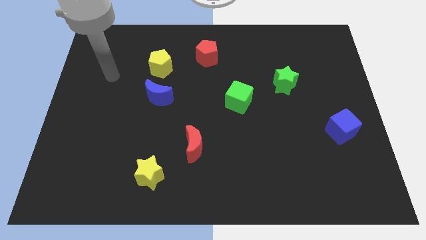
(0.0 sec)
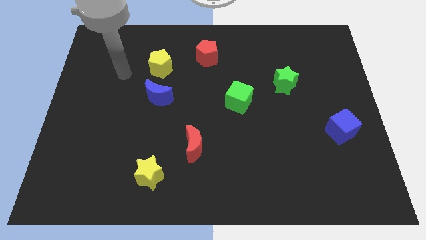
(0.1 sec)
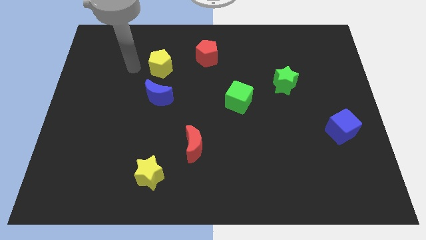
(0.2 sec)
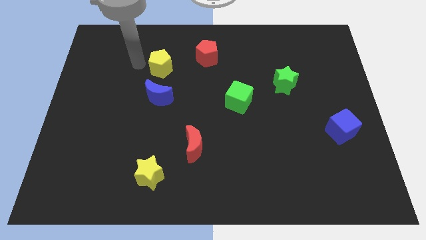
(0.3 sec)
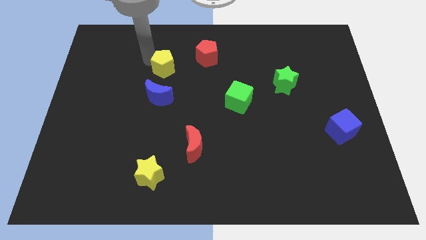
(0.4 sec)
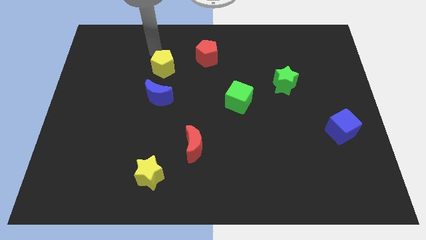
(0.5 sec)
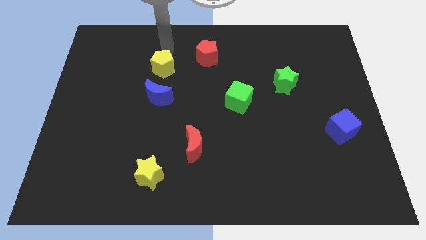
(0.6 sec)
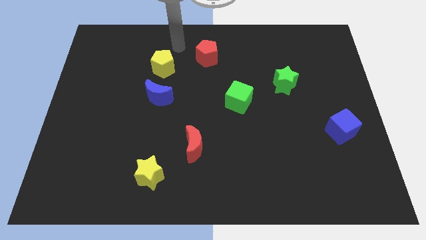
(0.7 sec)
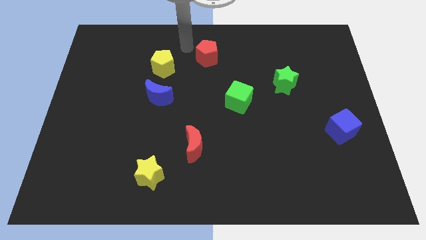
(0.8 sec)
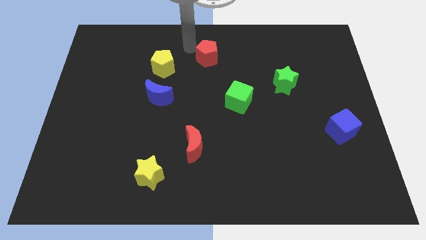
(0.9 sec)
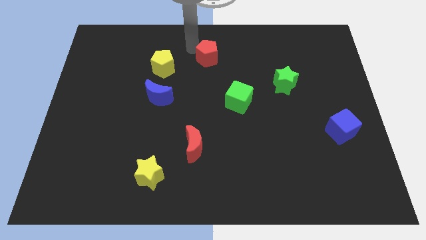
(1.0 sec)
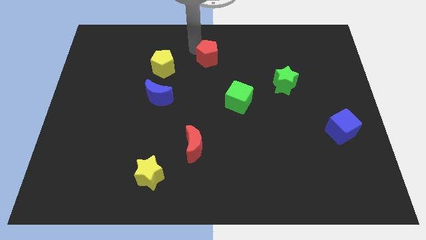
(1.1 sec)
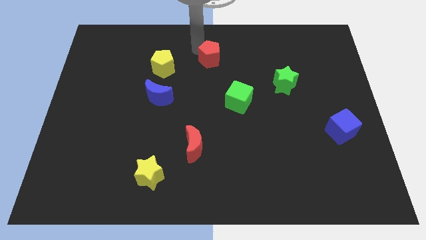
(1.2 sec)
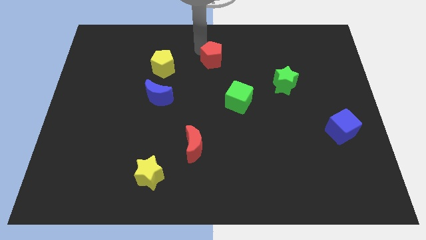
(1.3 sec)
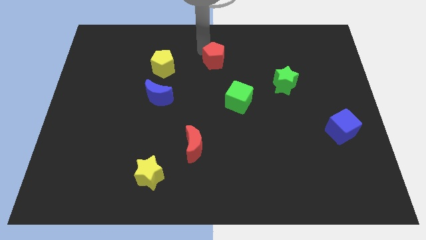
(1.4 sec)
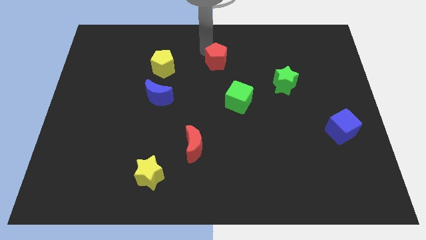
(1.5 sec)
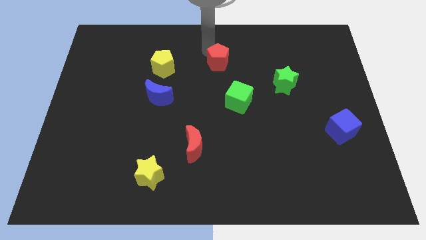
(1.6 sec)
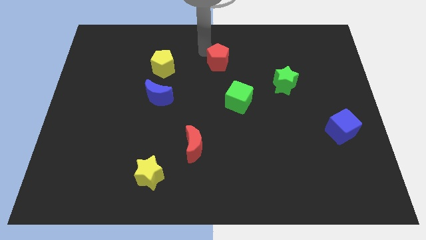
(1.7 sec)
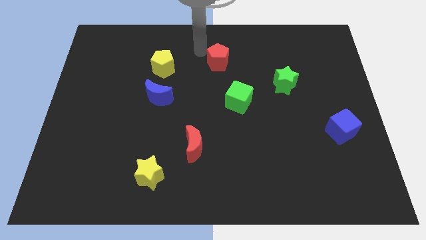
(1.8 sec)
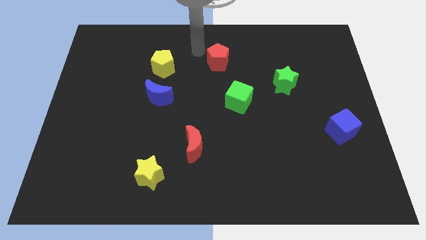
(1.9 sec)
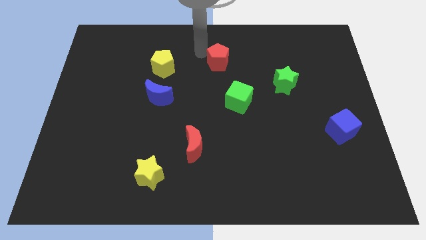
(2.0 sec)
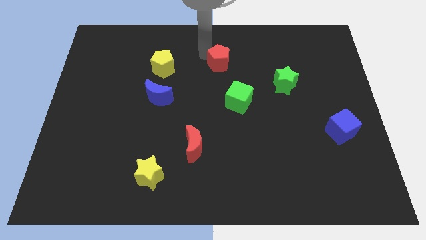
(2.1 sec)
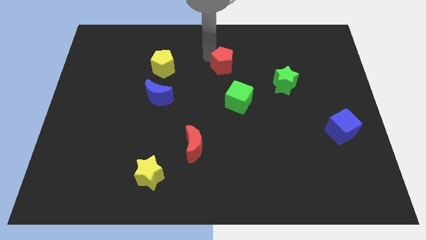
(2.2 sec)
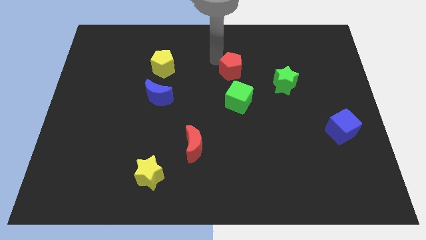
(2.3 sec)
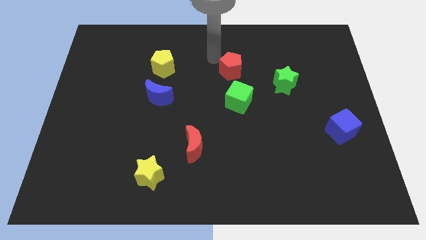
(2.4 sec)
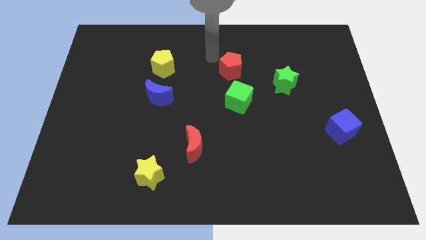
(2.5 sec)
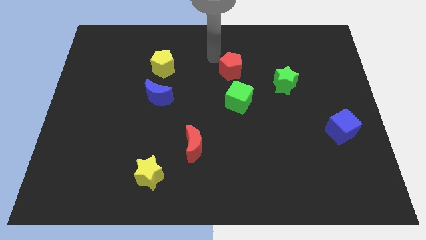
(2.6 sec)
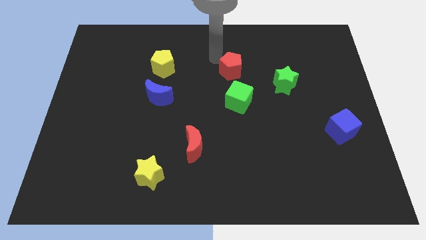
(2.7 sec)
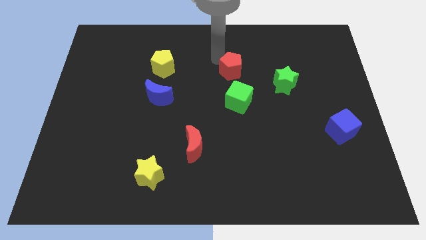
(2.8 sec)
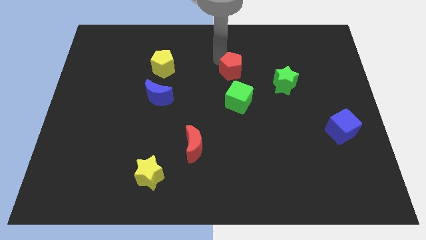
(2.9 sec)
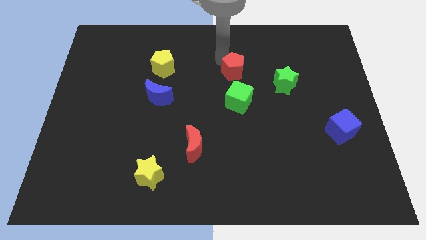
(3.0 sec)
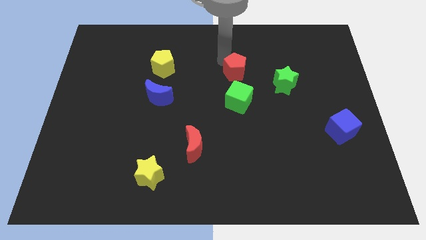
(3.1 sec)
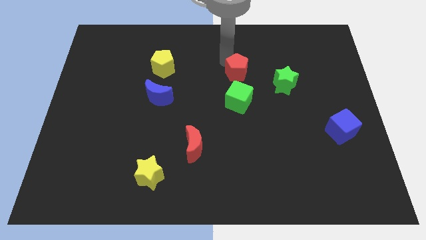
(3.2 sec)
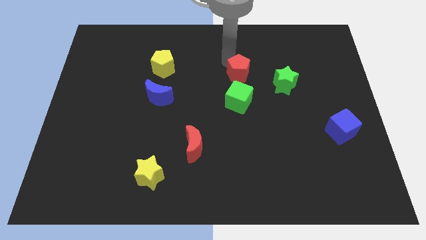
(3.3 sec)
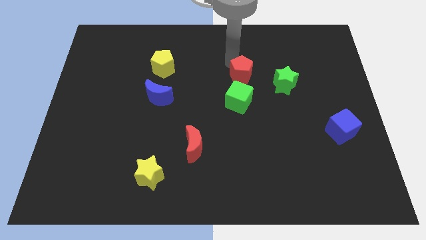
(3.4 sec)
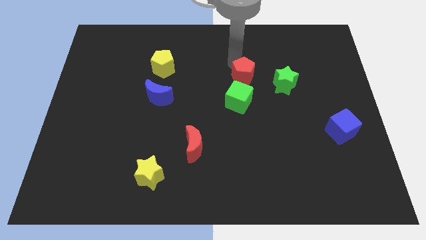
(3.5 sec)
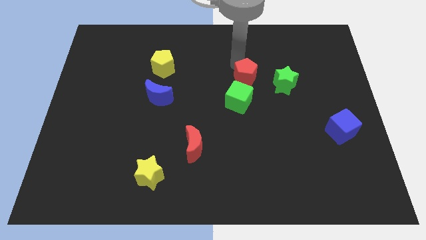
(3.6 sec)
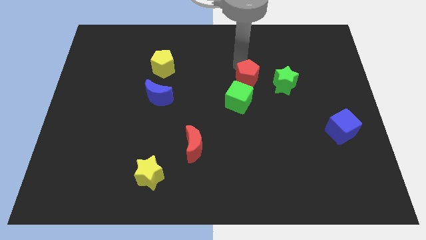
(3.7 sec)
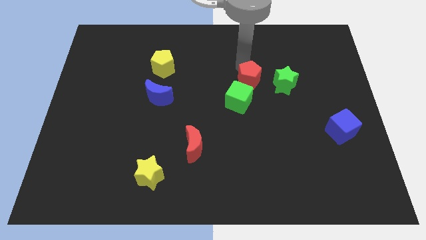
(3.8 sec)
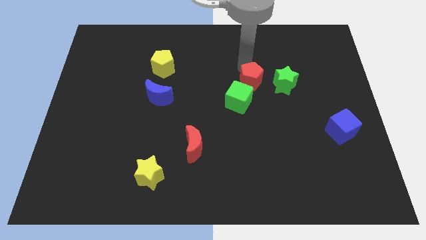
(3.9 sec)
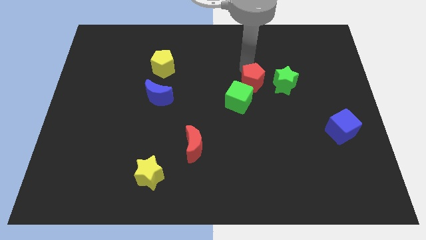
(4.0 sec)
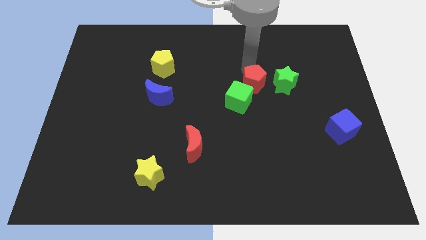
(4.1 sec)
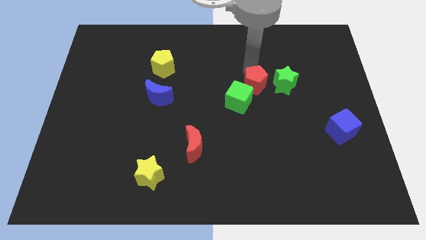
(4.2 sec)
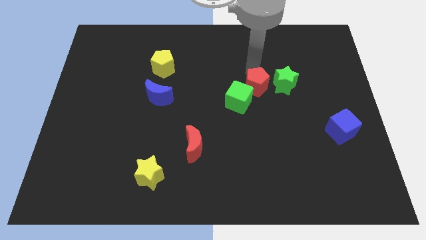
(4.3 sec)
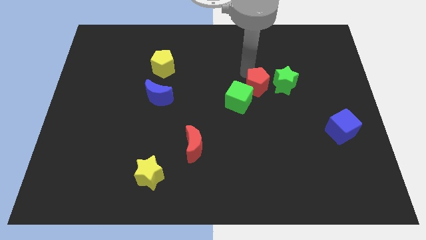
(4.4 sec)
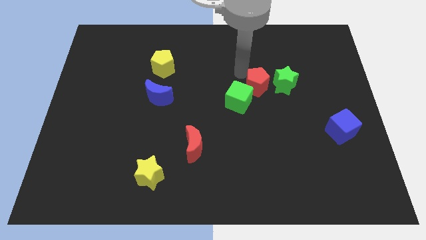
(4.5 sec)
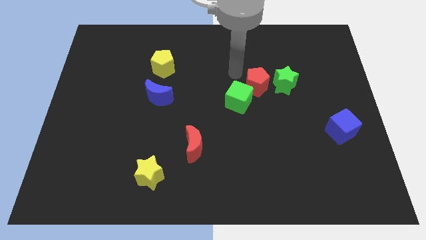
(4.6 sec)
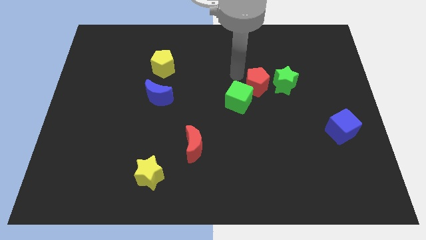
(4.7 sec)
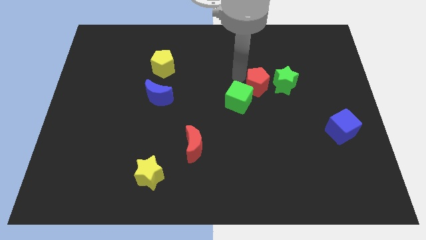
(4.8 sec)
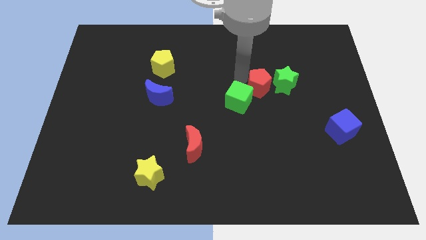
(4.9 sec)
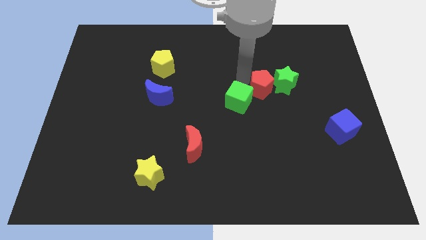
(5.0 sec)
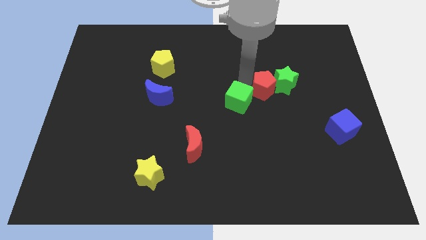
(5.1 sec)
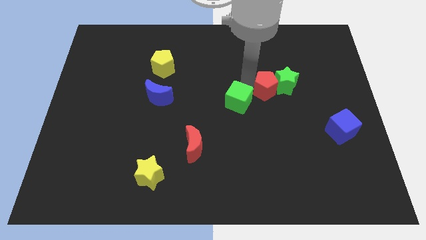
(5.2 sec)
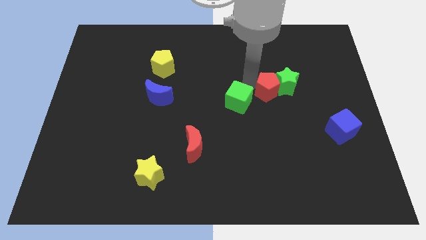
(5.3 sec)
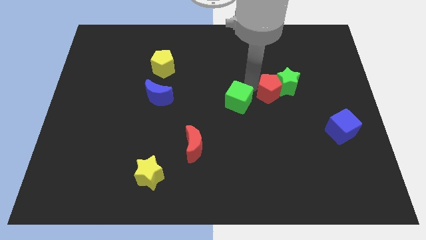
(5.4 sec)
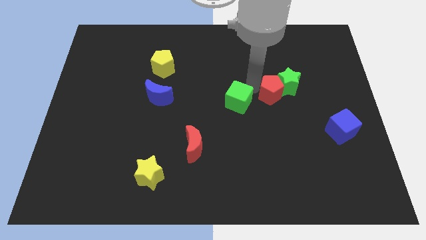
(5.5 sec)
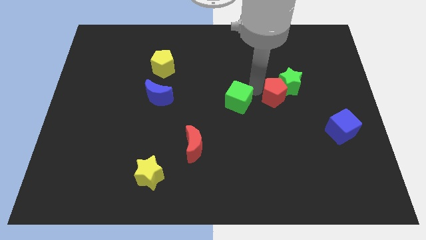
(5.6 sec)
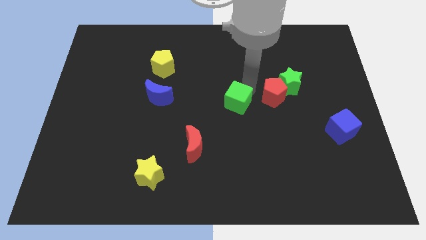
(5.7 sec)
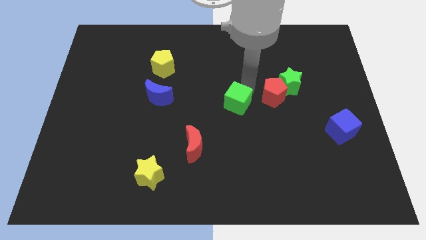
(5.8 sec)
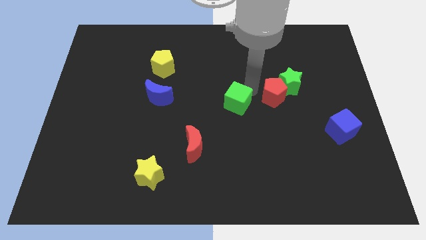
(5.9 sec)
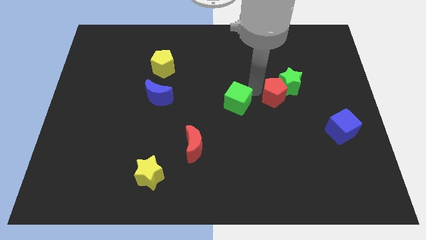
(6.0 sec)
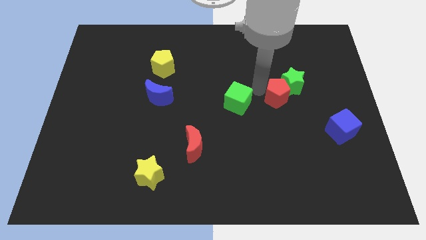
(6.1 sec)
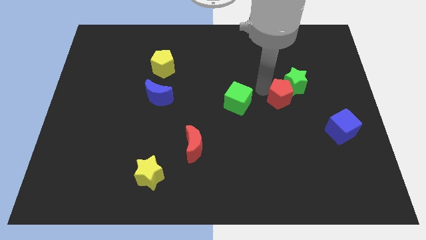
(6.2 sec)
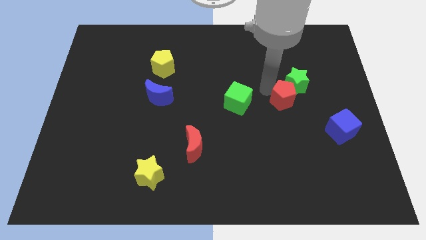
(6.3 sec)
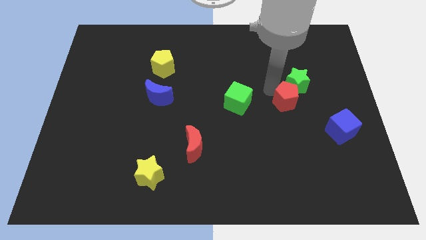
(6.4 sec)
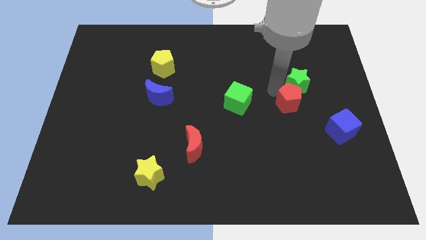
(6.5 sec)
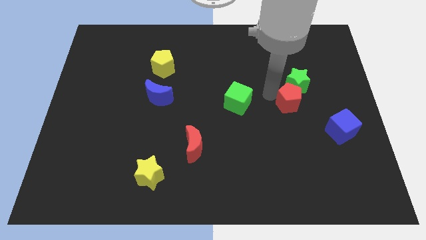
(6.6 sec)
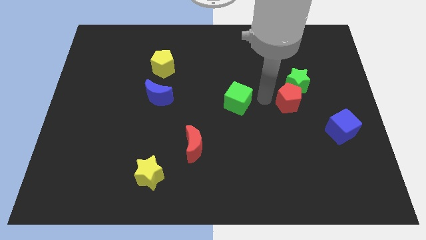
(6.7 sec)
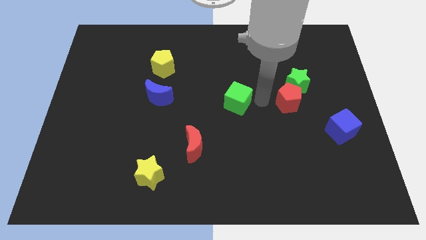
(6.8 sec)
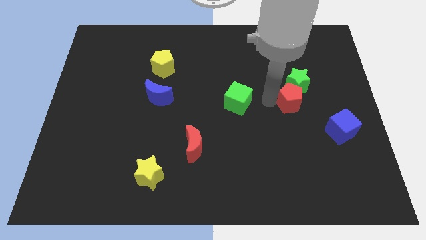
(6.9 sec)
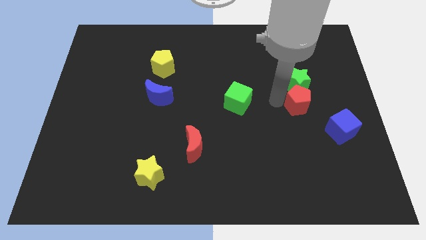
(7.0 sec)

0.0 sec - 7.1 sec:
move the red pentagon diagonally down and to the right of the green star
